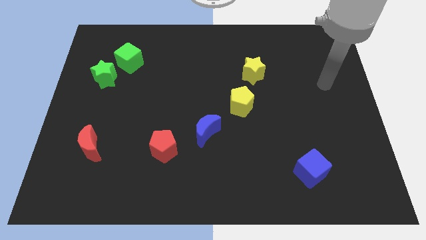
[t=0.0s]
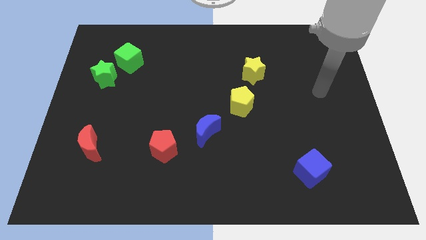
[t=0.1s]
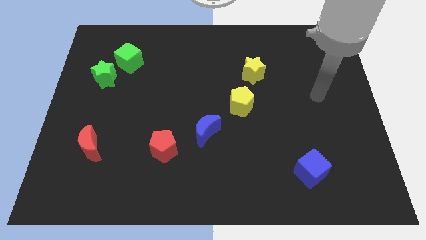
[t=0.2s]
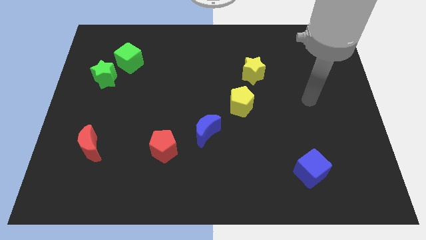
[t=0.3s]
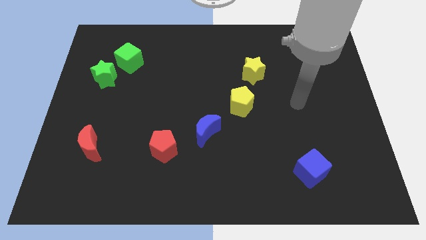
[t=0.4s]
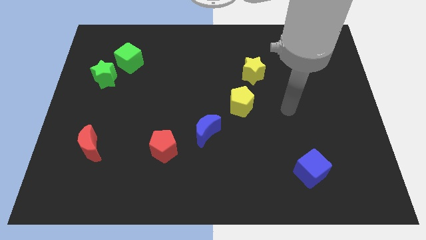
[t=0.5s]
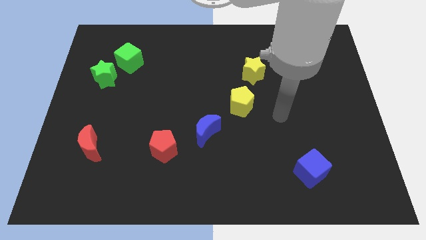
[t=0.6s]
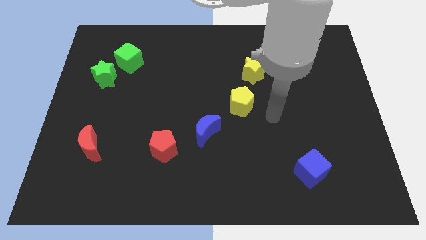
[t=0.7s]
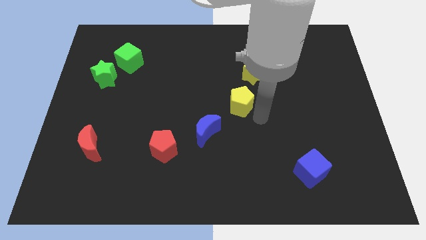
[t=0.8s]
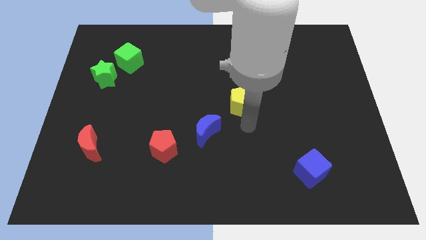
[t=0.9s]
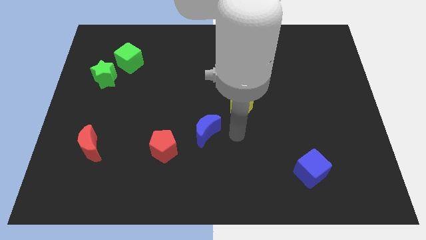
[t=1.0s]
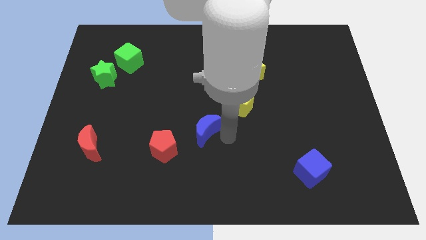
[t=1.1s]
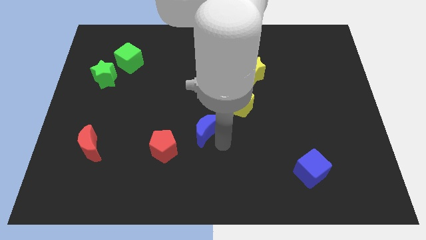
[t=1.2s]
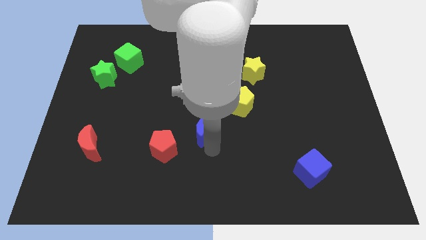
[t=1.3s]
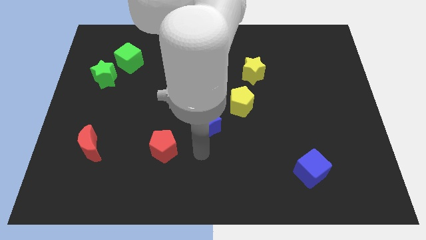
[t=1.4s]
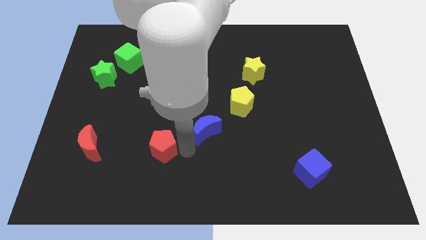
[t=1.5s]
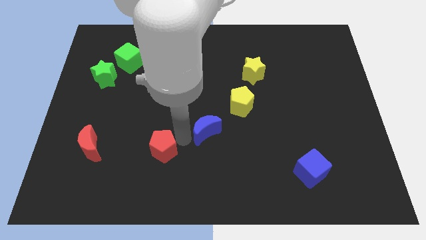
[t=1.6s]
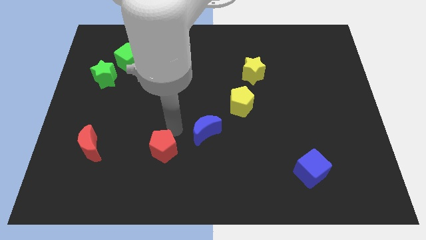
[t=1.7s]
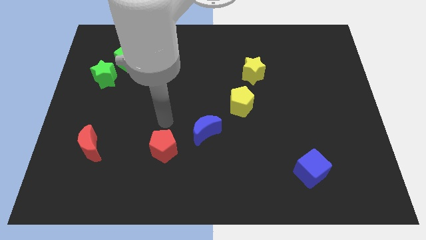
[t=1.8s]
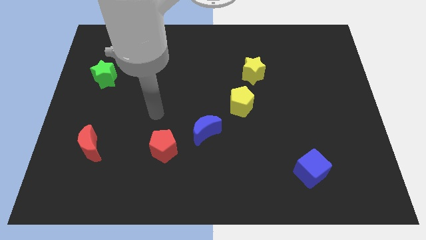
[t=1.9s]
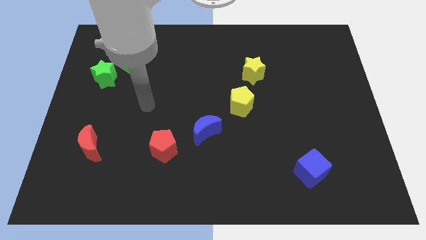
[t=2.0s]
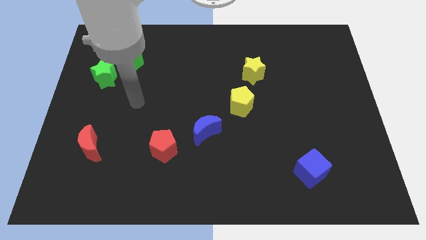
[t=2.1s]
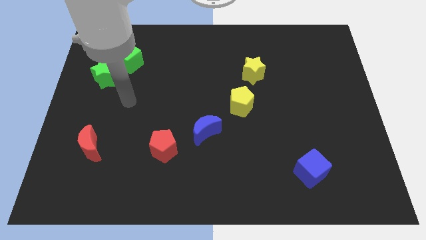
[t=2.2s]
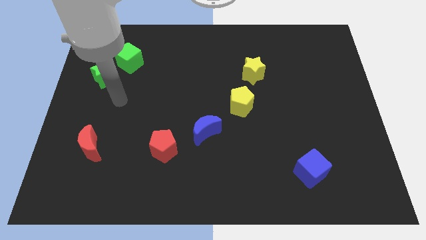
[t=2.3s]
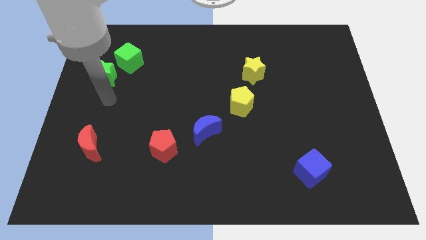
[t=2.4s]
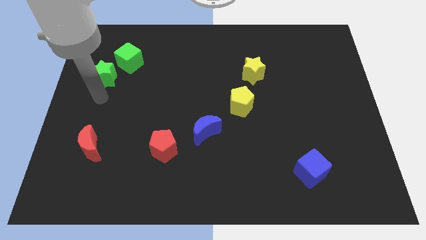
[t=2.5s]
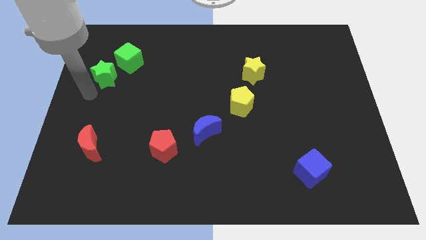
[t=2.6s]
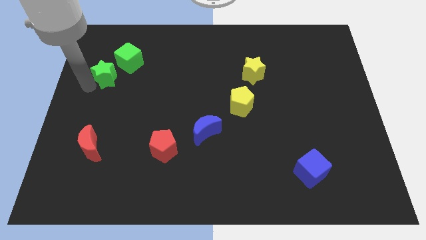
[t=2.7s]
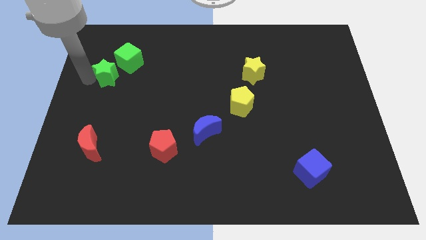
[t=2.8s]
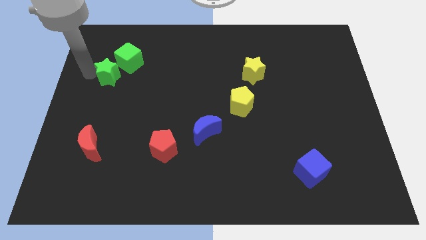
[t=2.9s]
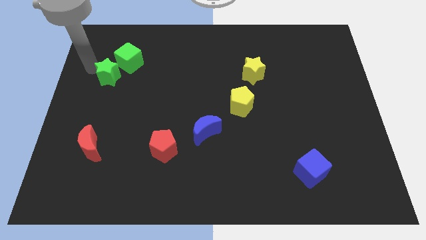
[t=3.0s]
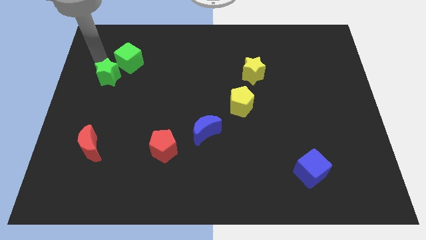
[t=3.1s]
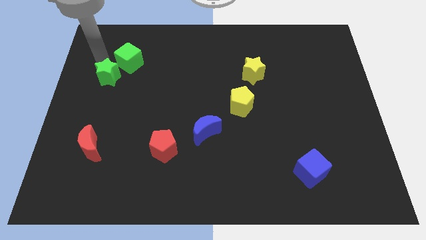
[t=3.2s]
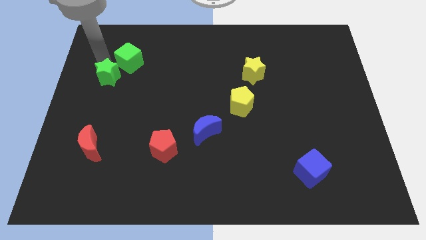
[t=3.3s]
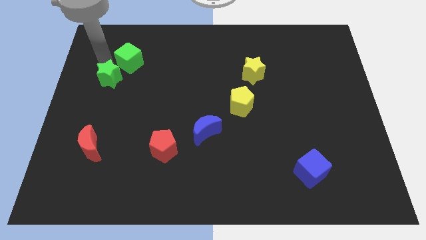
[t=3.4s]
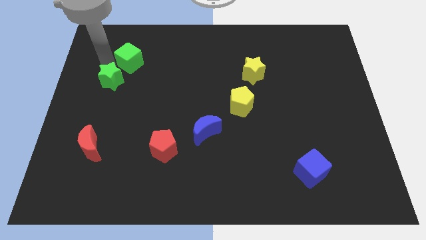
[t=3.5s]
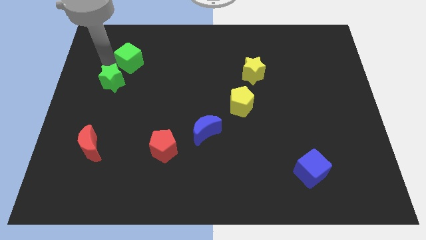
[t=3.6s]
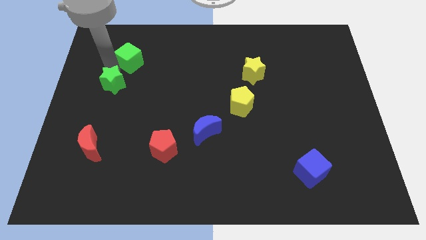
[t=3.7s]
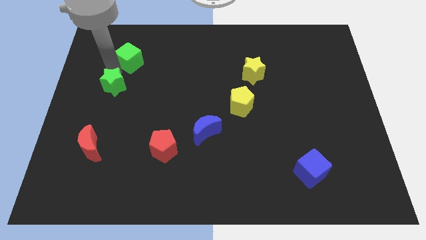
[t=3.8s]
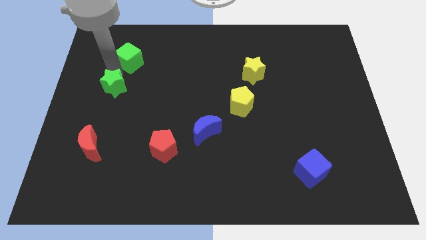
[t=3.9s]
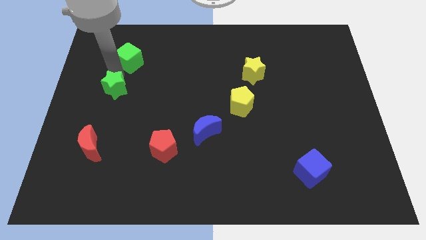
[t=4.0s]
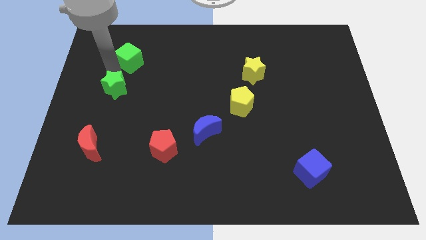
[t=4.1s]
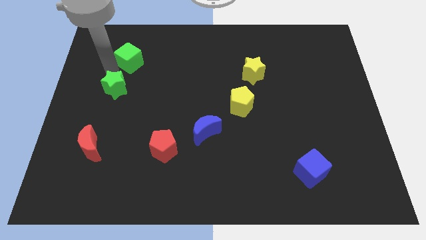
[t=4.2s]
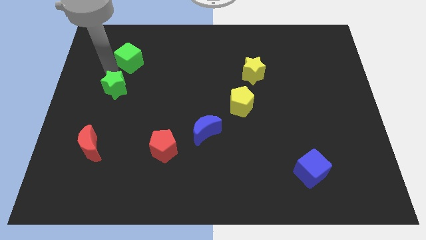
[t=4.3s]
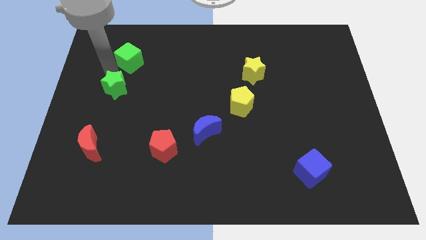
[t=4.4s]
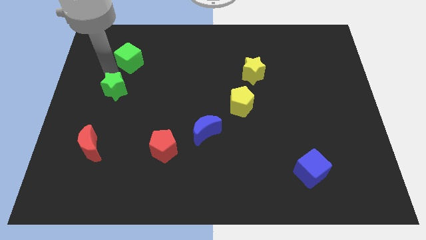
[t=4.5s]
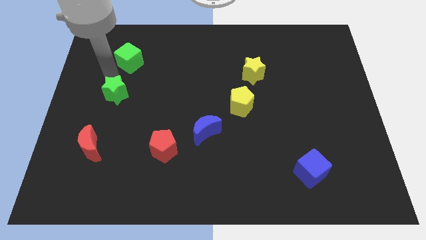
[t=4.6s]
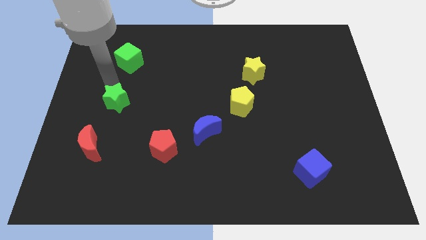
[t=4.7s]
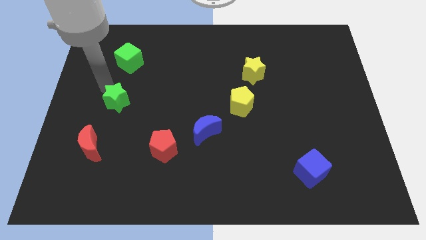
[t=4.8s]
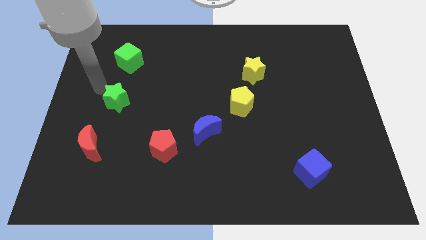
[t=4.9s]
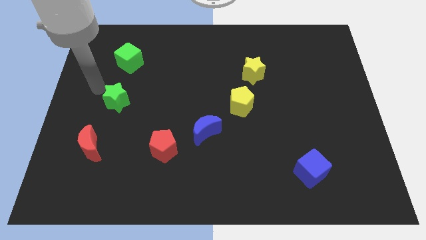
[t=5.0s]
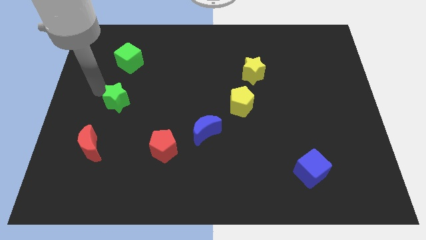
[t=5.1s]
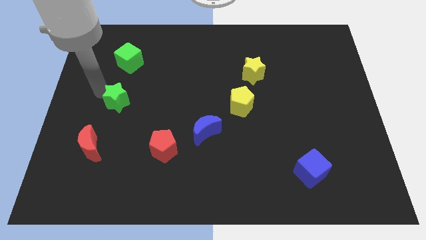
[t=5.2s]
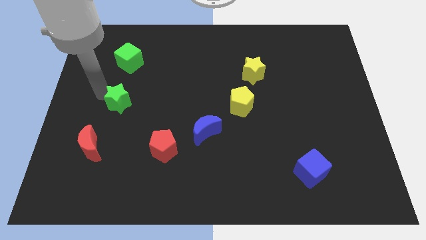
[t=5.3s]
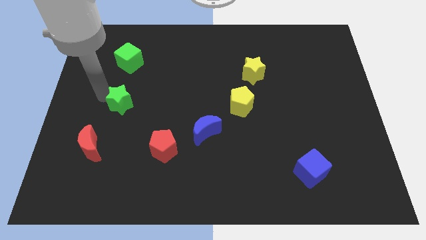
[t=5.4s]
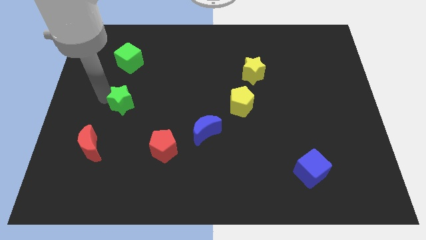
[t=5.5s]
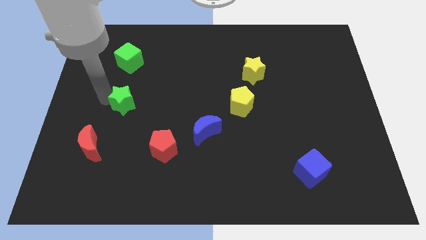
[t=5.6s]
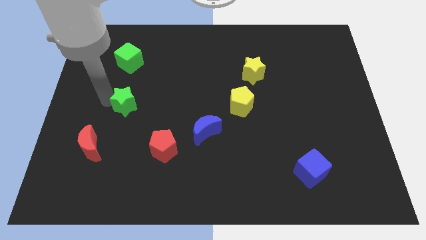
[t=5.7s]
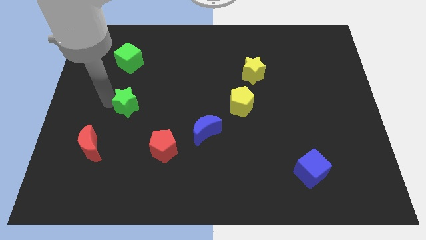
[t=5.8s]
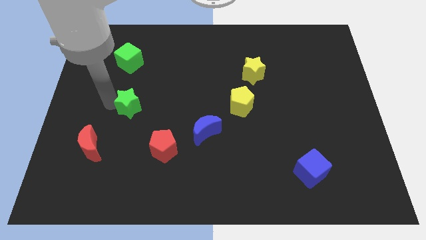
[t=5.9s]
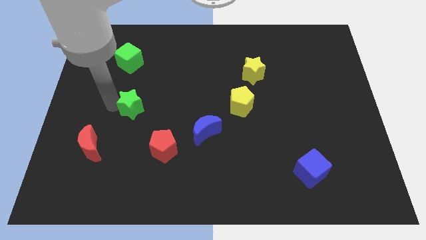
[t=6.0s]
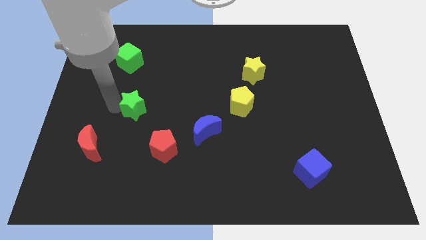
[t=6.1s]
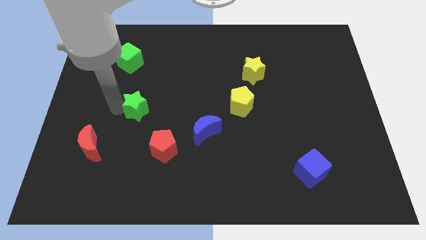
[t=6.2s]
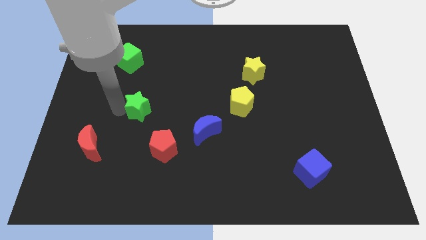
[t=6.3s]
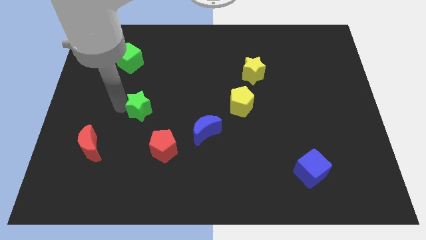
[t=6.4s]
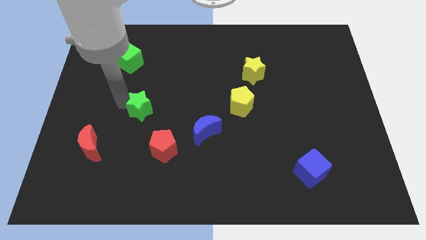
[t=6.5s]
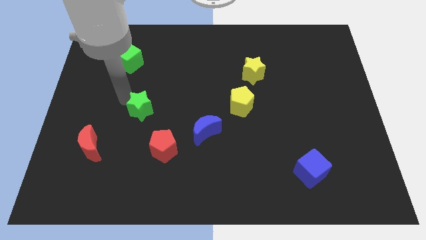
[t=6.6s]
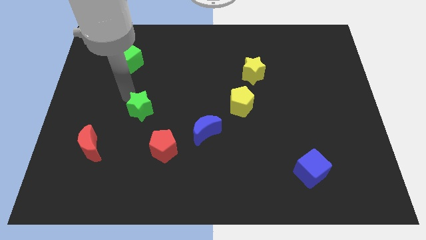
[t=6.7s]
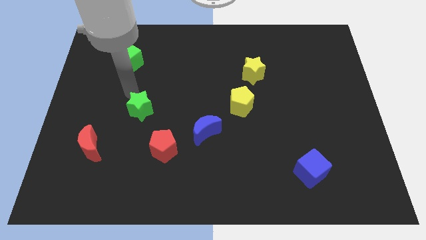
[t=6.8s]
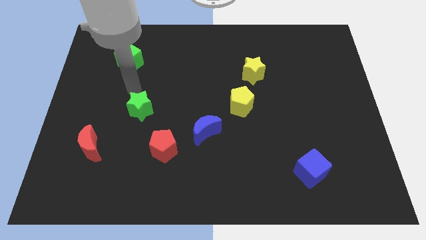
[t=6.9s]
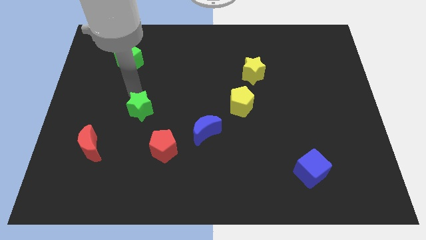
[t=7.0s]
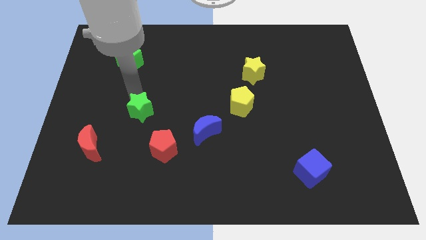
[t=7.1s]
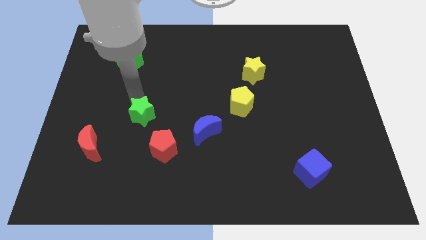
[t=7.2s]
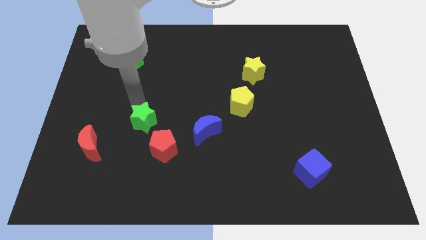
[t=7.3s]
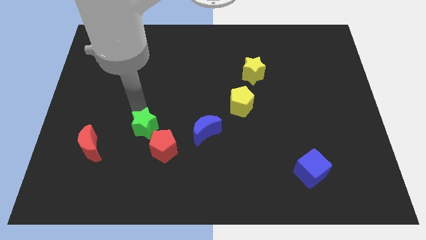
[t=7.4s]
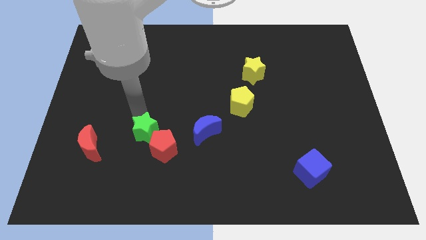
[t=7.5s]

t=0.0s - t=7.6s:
push the green star next to the red pentagon
